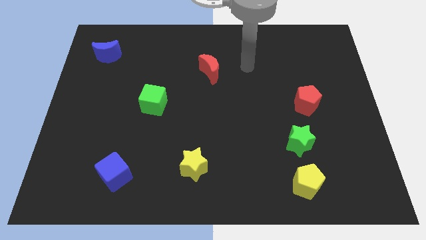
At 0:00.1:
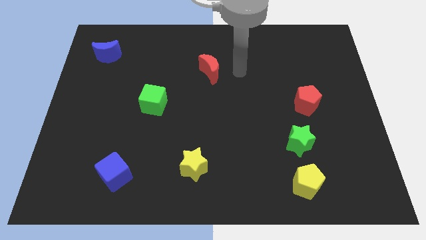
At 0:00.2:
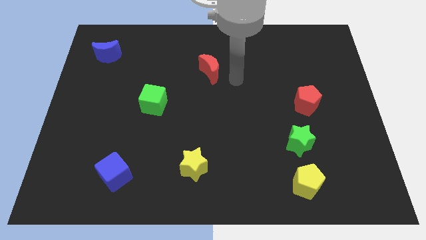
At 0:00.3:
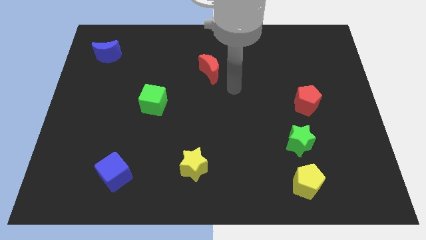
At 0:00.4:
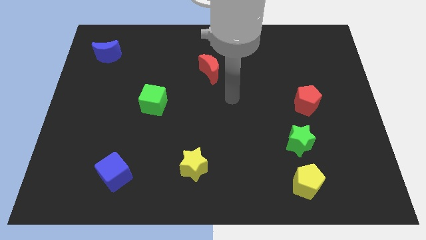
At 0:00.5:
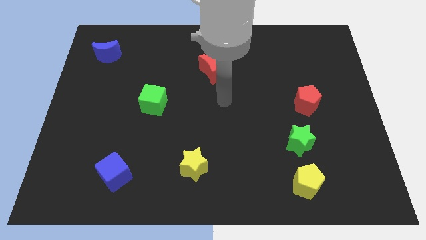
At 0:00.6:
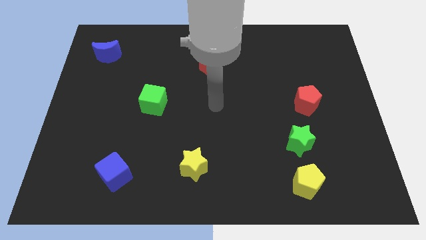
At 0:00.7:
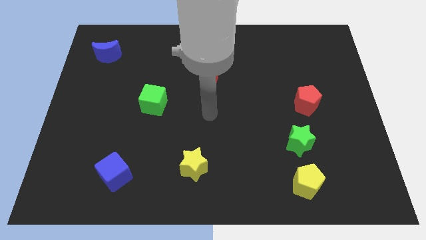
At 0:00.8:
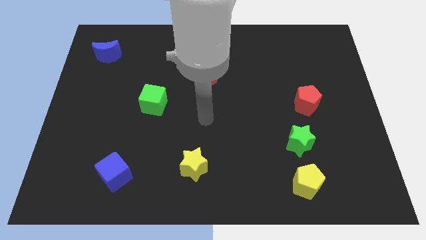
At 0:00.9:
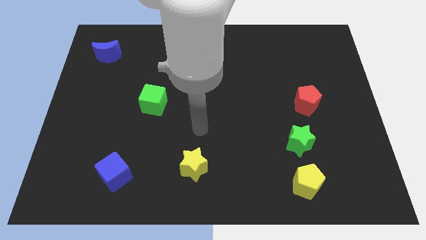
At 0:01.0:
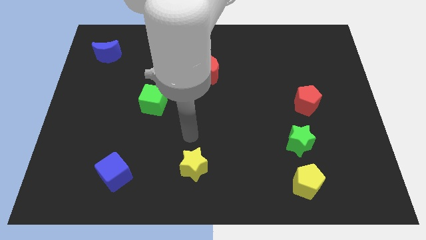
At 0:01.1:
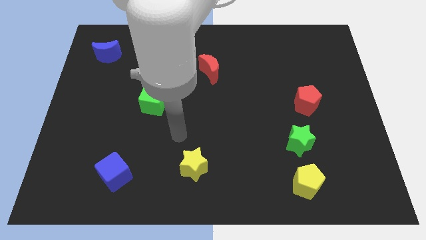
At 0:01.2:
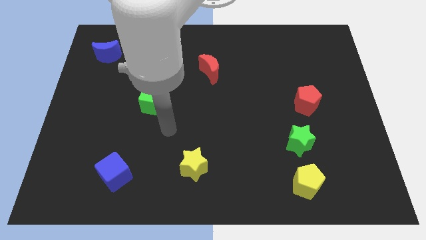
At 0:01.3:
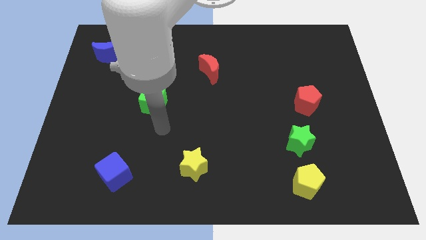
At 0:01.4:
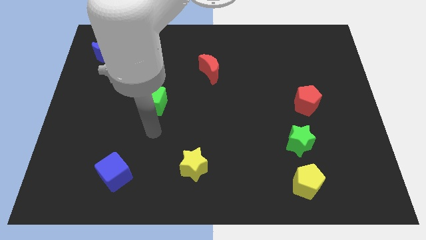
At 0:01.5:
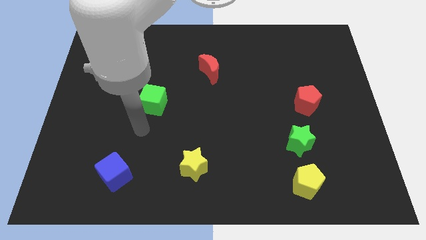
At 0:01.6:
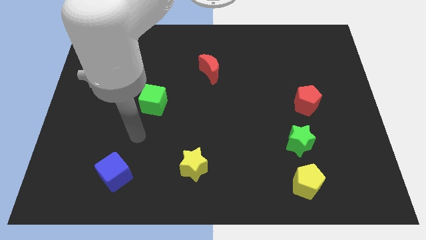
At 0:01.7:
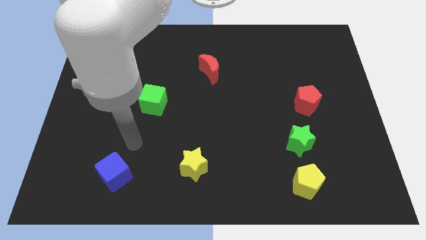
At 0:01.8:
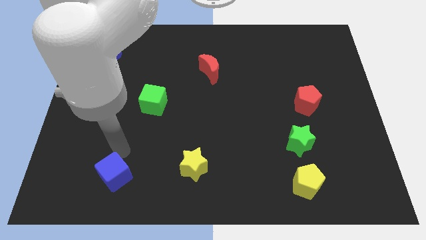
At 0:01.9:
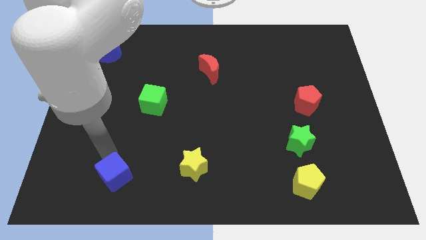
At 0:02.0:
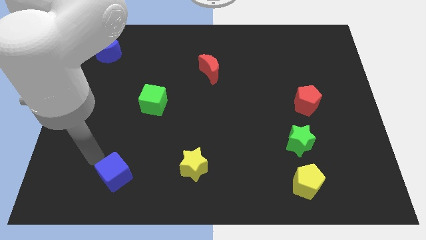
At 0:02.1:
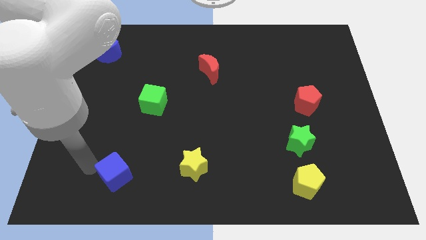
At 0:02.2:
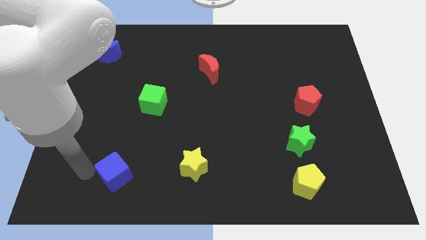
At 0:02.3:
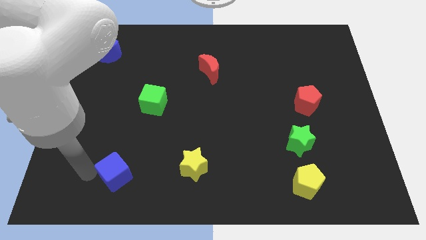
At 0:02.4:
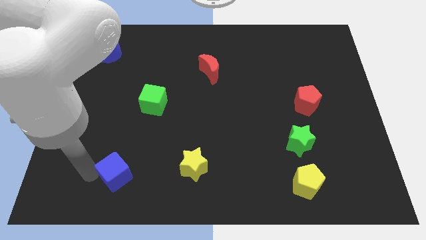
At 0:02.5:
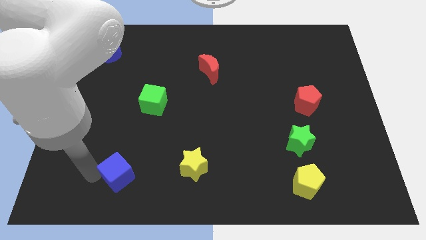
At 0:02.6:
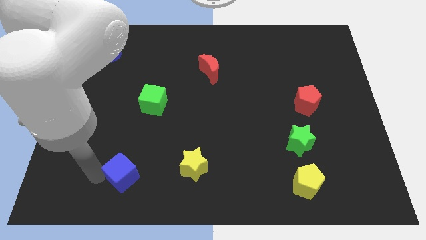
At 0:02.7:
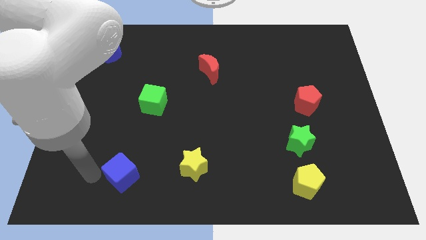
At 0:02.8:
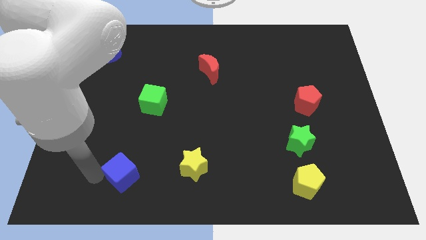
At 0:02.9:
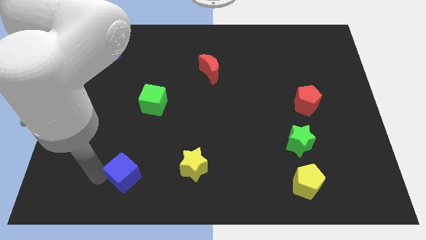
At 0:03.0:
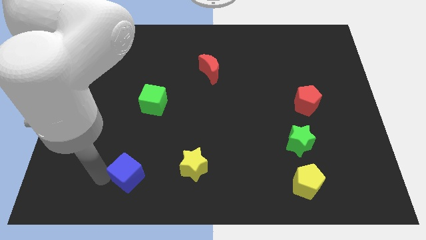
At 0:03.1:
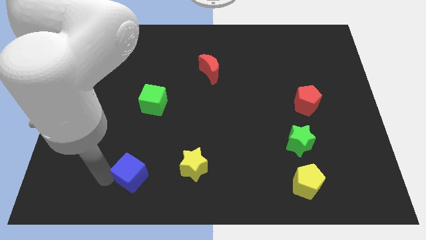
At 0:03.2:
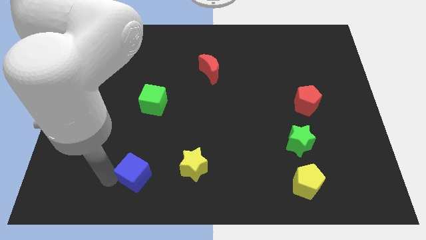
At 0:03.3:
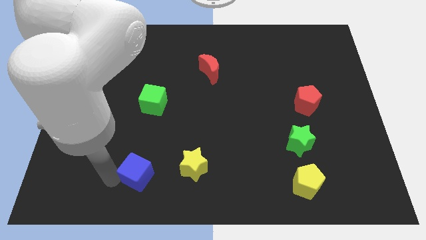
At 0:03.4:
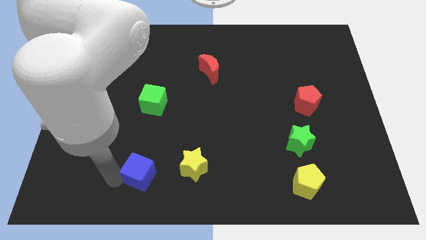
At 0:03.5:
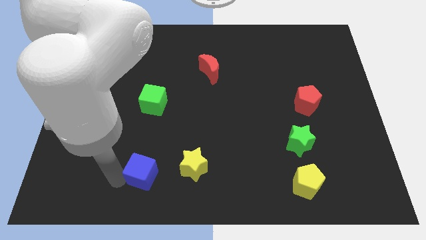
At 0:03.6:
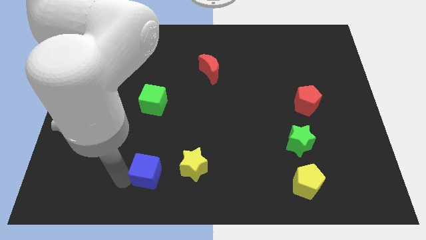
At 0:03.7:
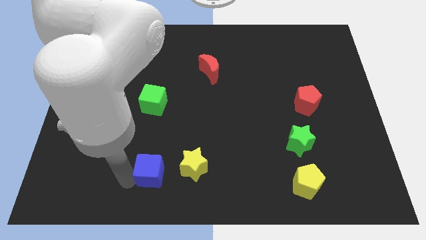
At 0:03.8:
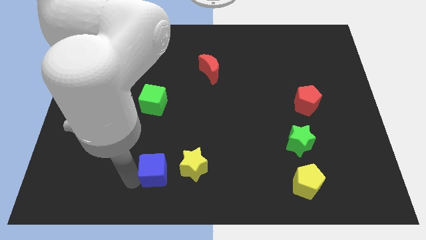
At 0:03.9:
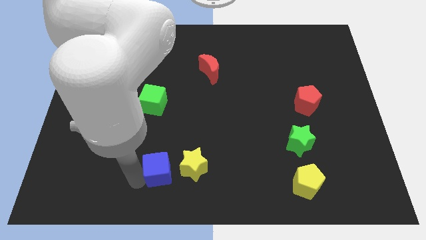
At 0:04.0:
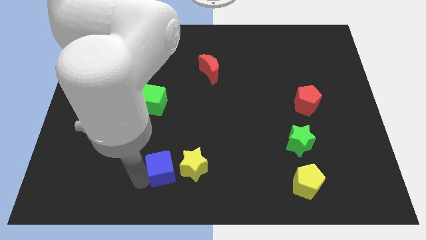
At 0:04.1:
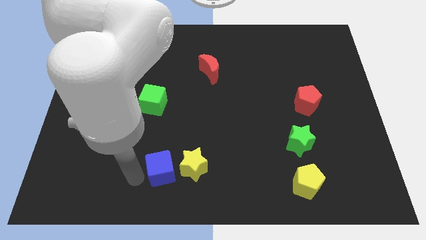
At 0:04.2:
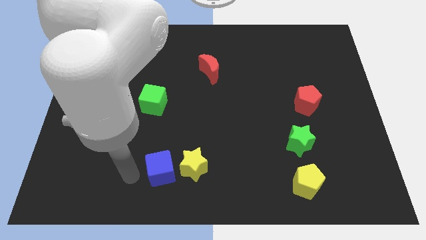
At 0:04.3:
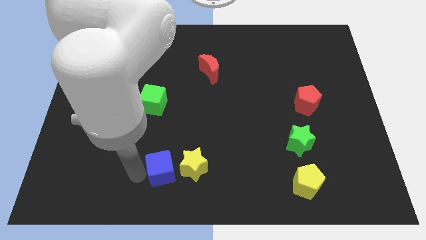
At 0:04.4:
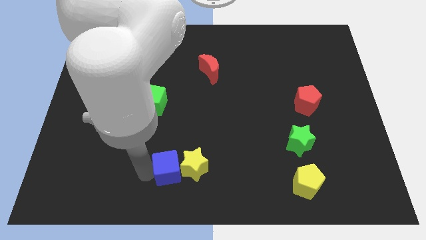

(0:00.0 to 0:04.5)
push the blue cube towards the yellow star

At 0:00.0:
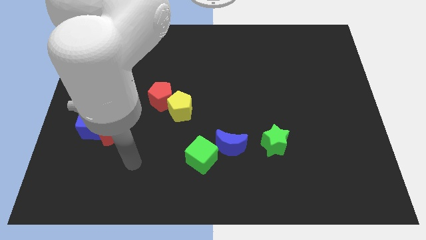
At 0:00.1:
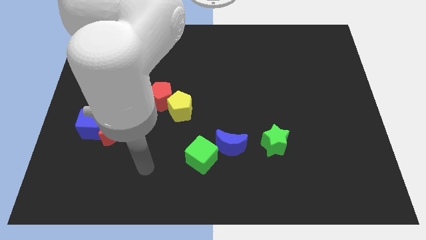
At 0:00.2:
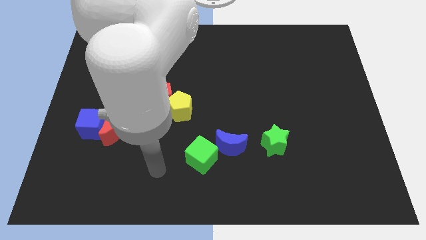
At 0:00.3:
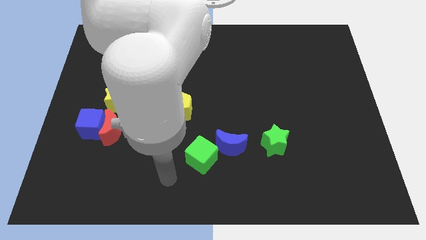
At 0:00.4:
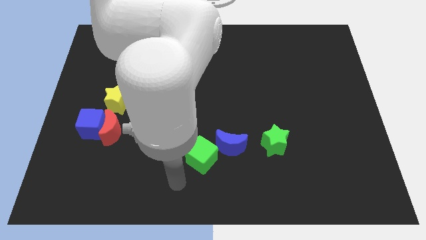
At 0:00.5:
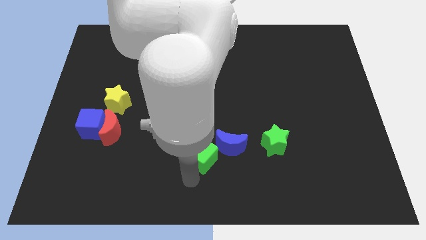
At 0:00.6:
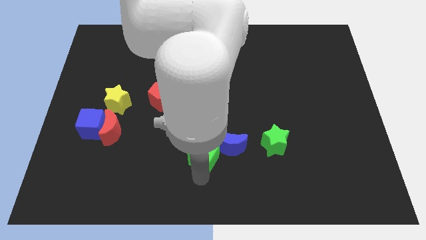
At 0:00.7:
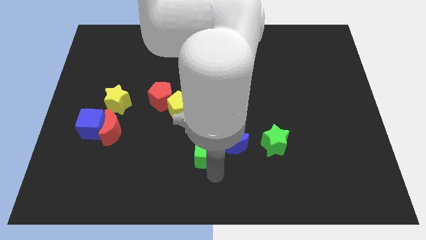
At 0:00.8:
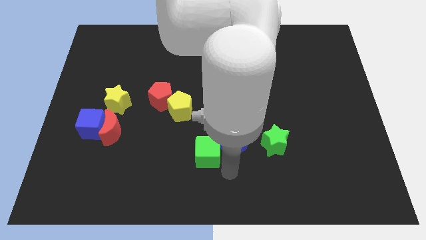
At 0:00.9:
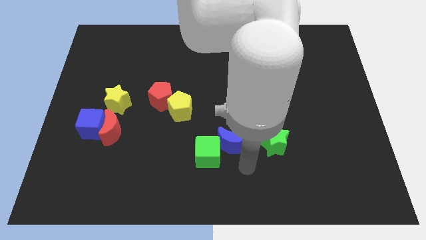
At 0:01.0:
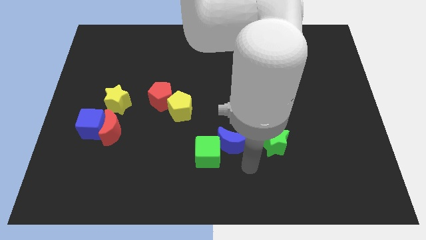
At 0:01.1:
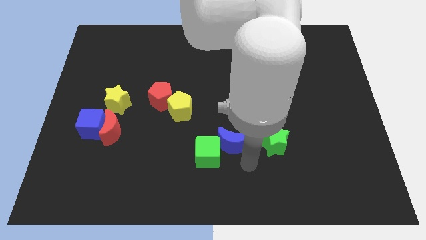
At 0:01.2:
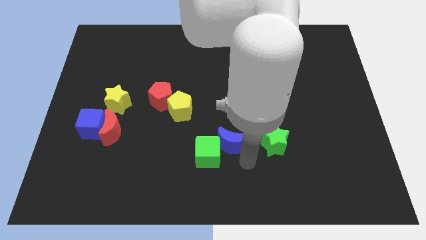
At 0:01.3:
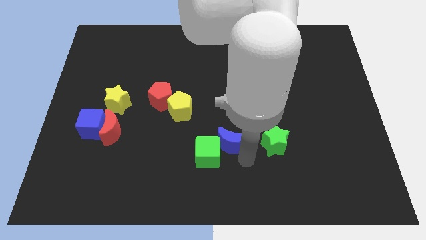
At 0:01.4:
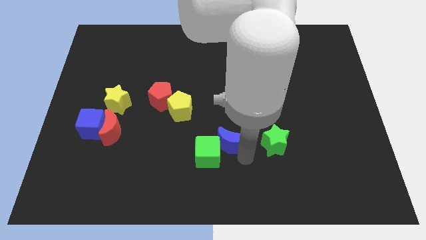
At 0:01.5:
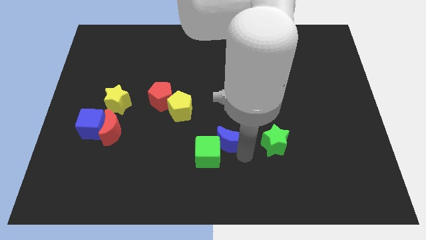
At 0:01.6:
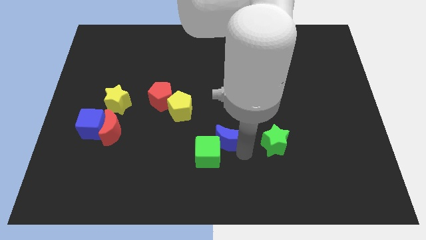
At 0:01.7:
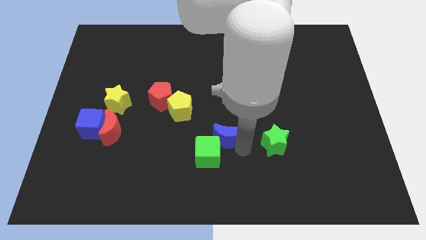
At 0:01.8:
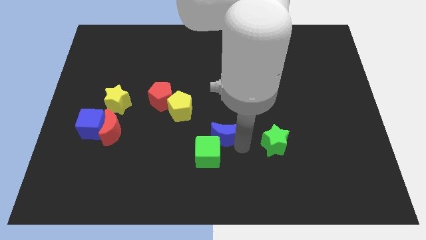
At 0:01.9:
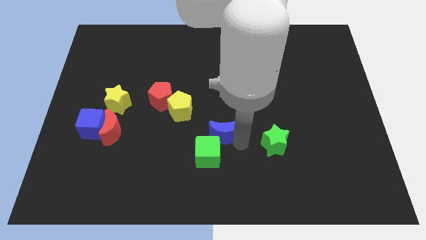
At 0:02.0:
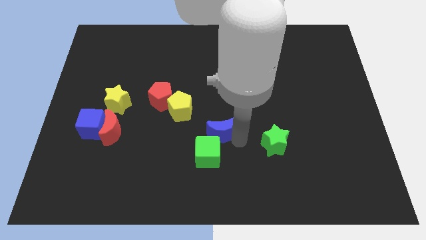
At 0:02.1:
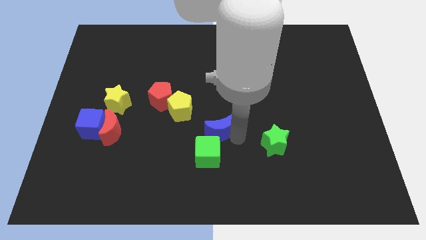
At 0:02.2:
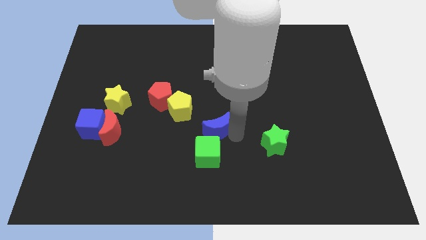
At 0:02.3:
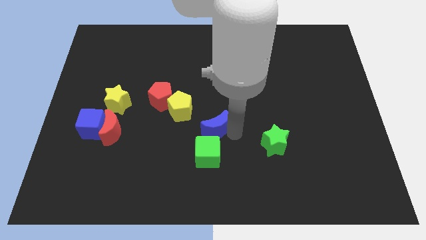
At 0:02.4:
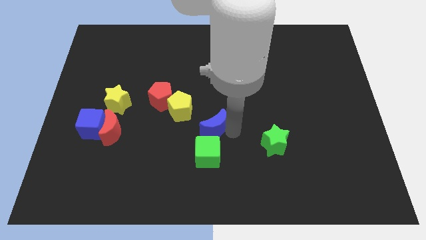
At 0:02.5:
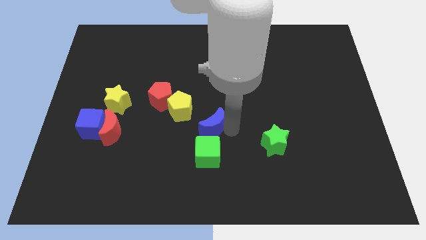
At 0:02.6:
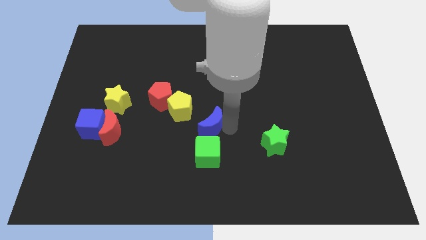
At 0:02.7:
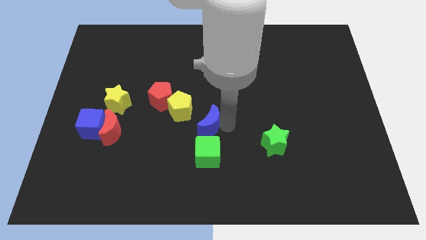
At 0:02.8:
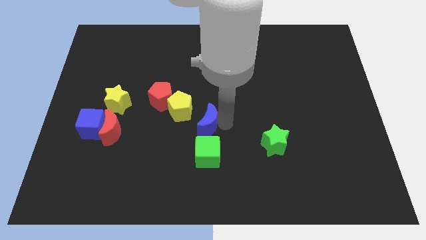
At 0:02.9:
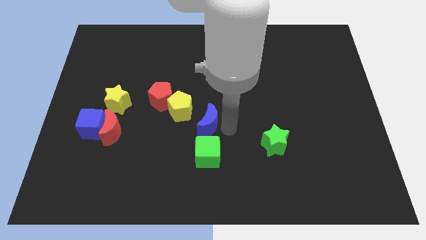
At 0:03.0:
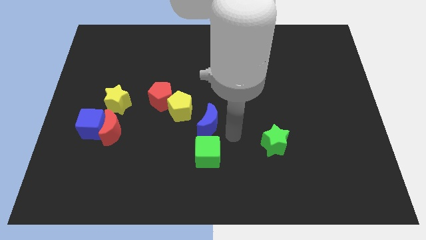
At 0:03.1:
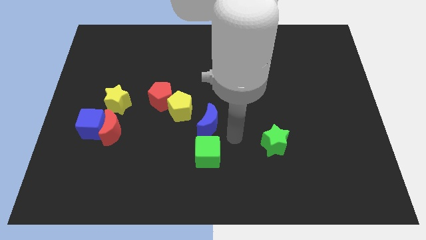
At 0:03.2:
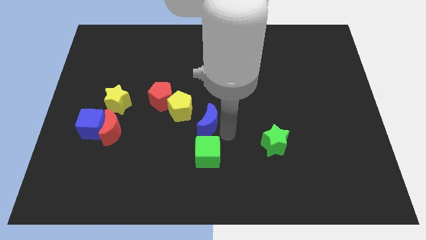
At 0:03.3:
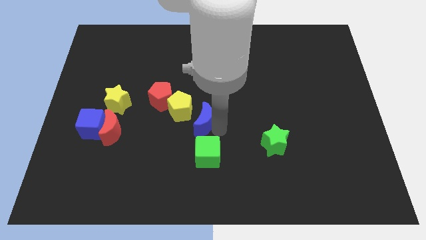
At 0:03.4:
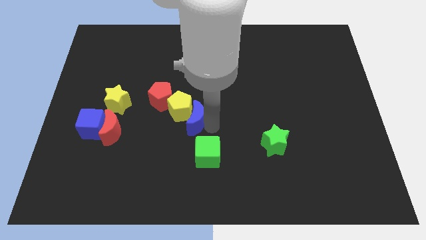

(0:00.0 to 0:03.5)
put the blue moon next to the yellow pentagon
